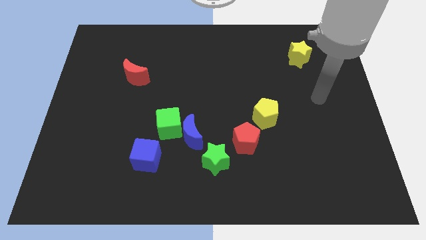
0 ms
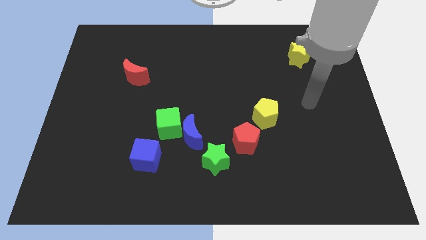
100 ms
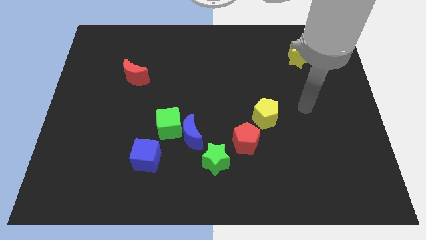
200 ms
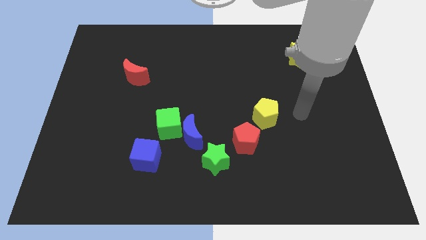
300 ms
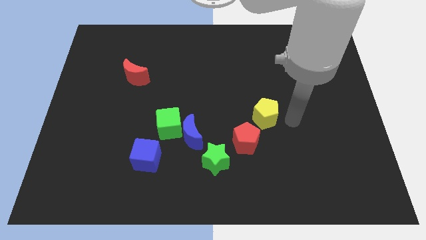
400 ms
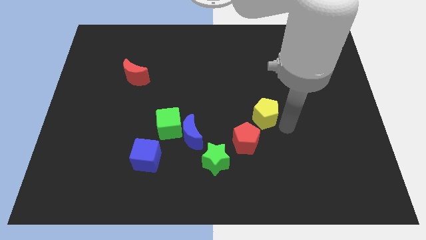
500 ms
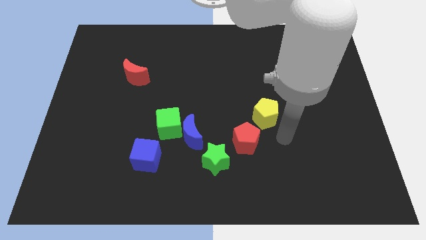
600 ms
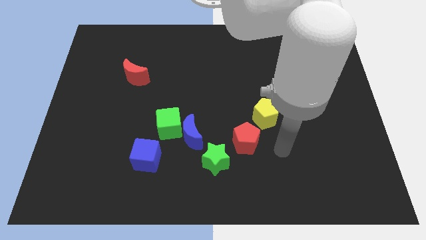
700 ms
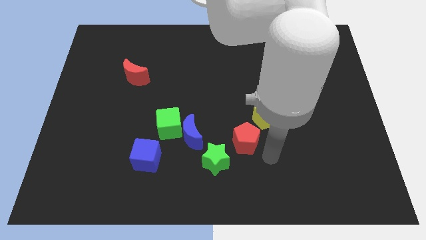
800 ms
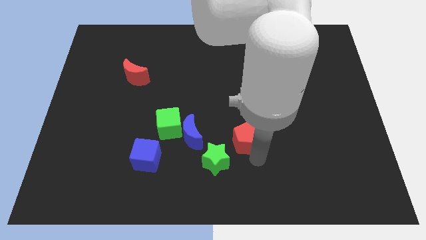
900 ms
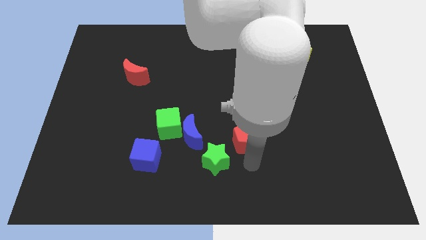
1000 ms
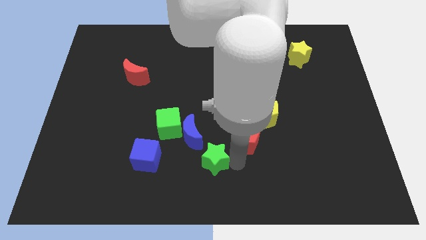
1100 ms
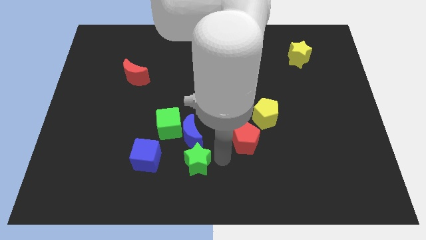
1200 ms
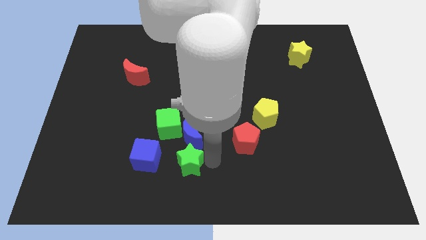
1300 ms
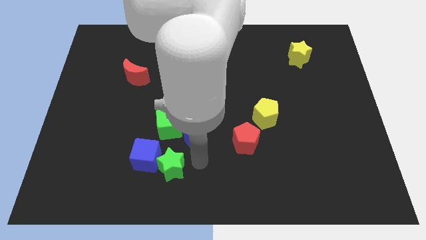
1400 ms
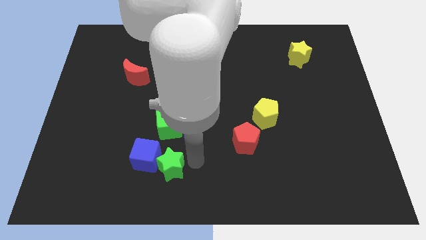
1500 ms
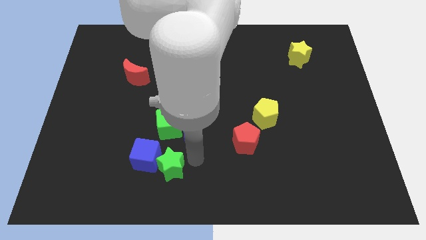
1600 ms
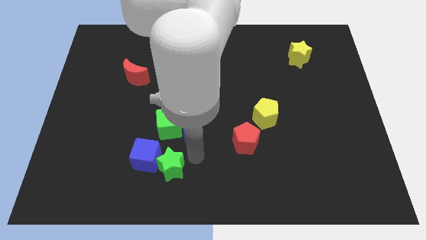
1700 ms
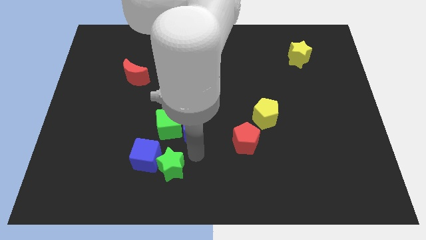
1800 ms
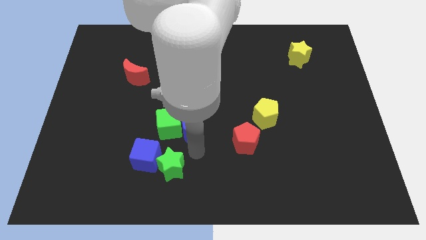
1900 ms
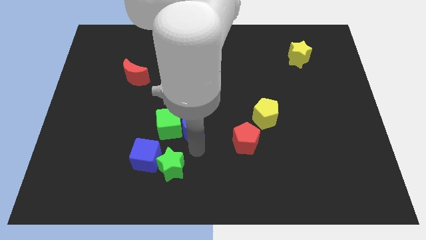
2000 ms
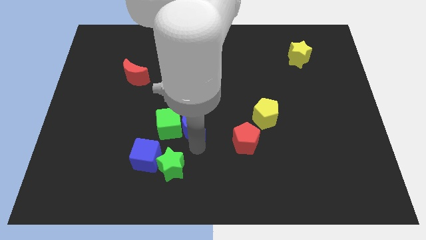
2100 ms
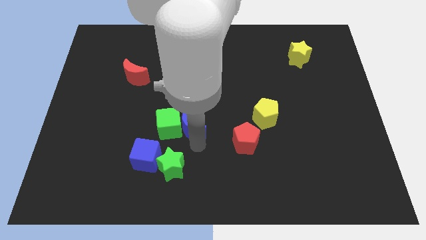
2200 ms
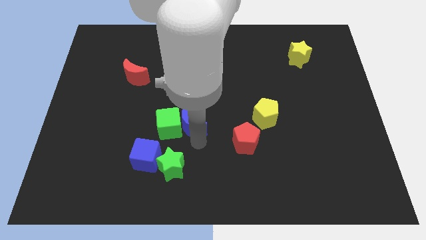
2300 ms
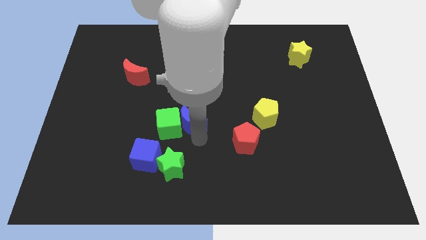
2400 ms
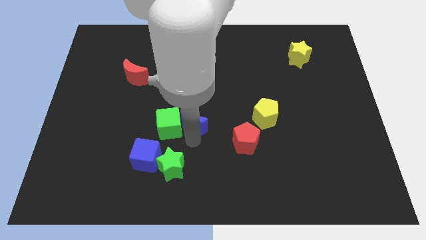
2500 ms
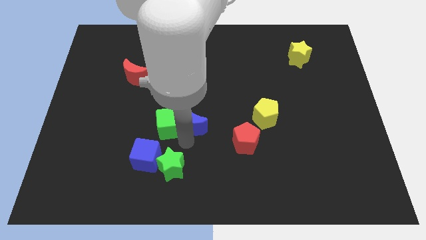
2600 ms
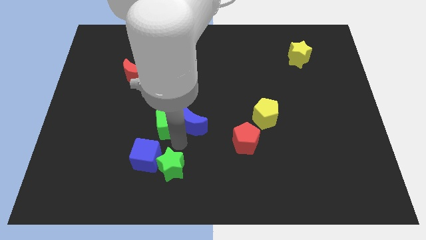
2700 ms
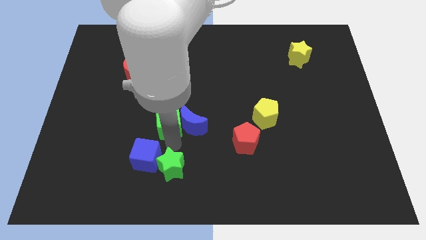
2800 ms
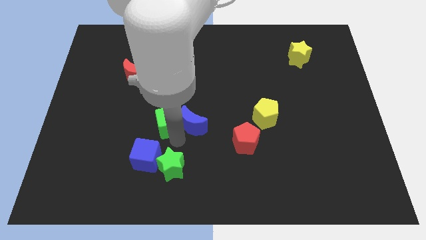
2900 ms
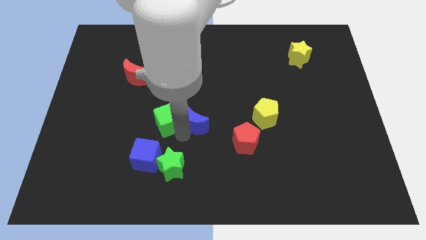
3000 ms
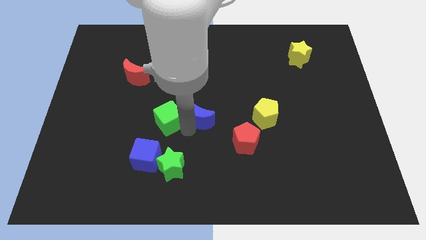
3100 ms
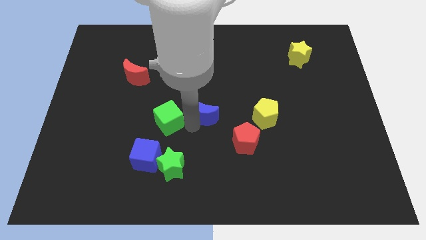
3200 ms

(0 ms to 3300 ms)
separate the blue moon from the green cube and green star

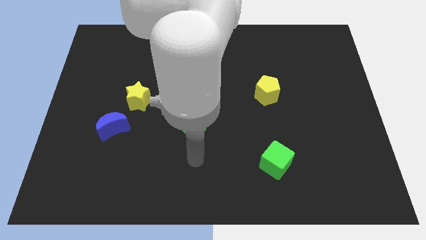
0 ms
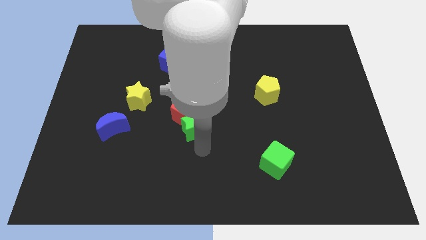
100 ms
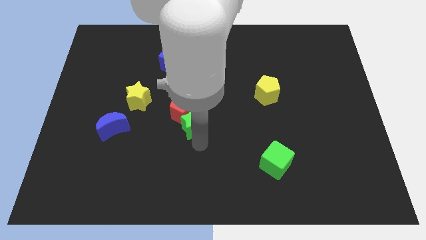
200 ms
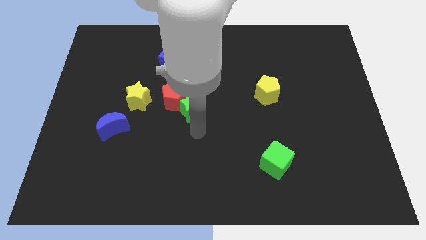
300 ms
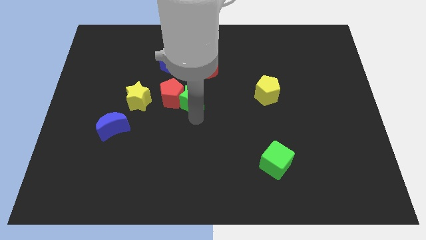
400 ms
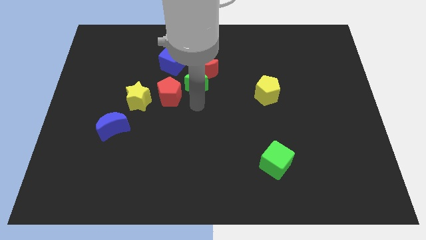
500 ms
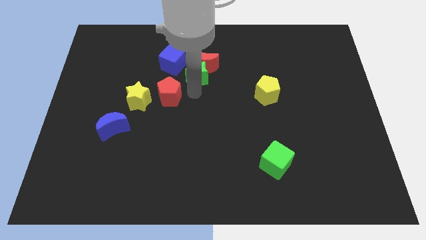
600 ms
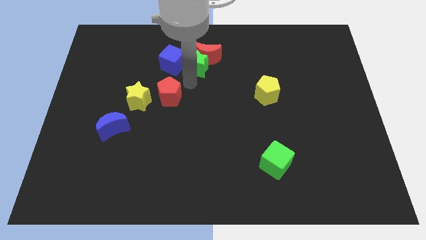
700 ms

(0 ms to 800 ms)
pull the red pentagon apart from the green star

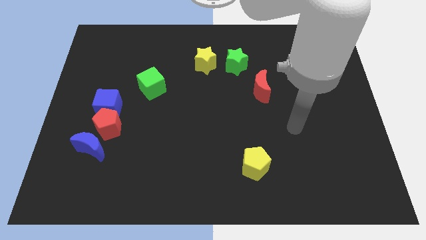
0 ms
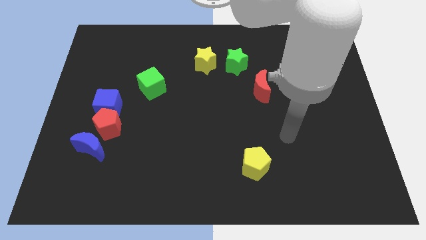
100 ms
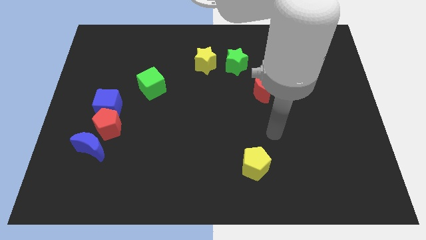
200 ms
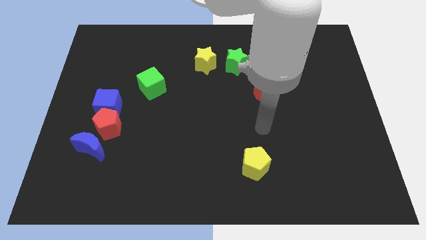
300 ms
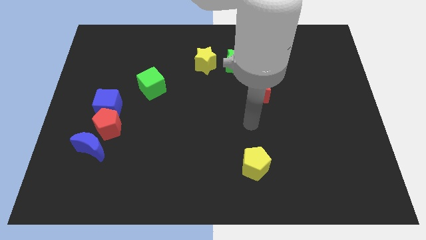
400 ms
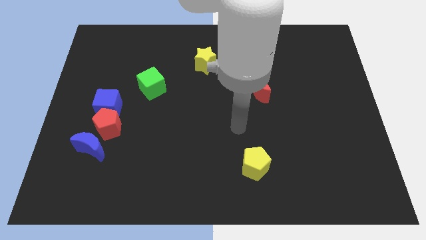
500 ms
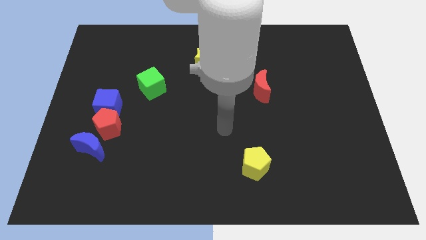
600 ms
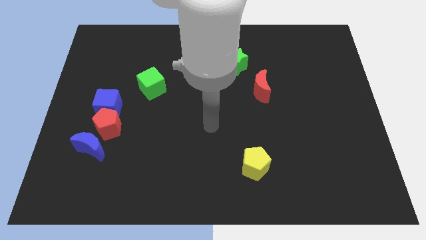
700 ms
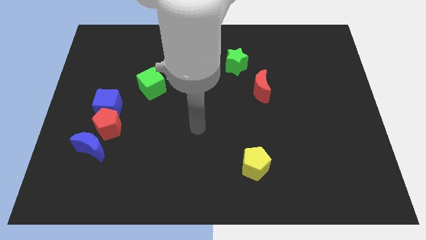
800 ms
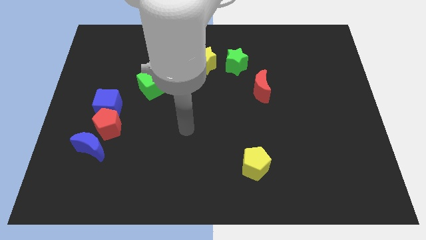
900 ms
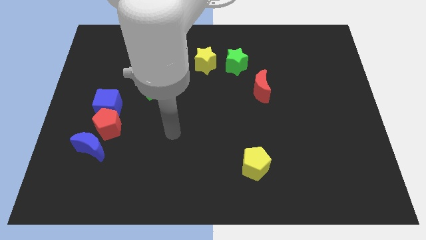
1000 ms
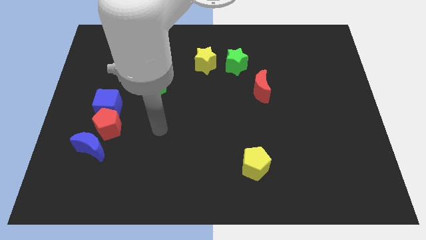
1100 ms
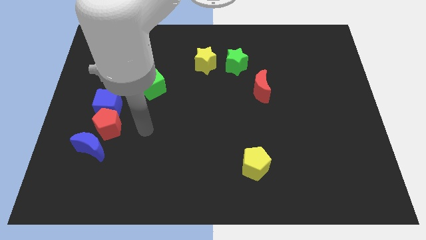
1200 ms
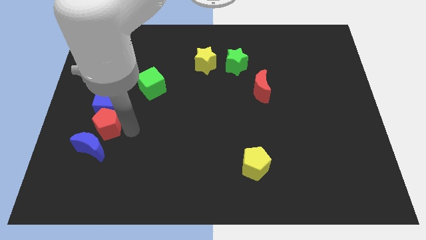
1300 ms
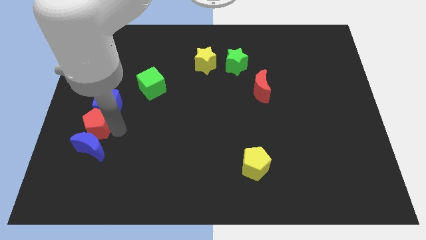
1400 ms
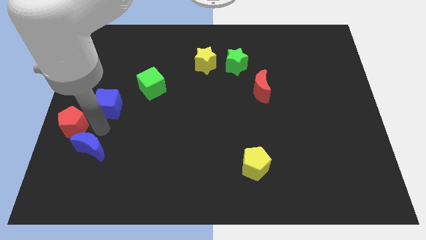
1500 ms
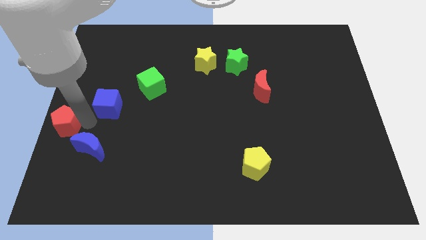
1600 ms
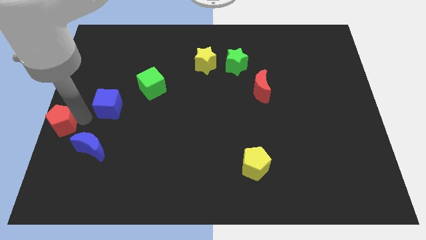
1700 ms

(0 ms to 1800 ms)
separate the blue cube from the red pentagon

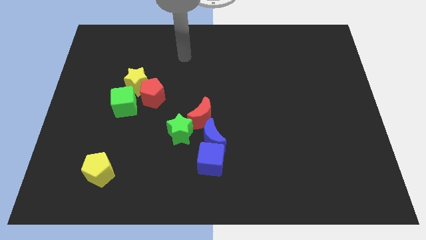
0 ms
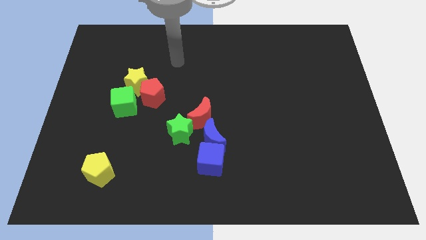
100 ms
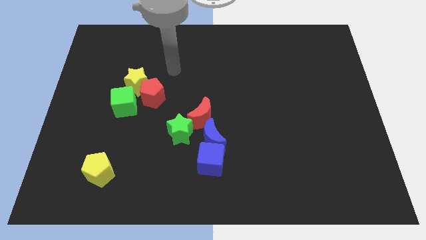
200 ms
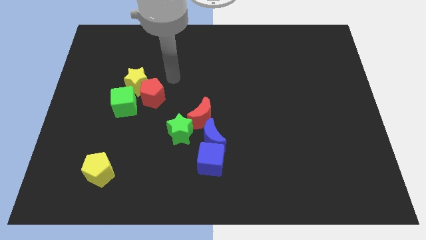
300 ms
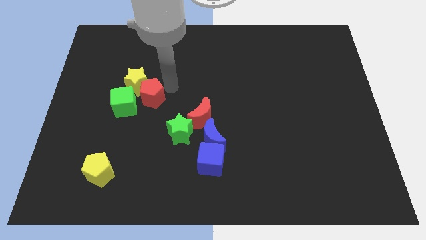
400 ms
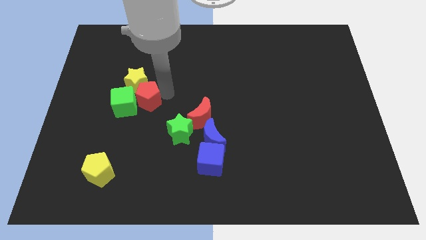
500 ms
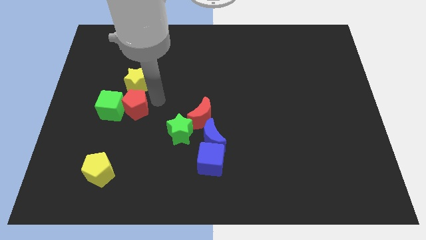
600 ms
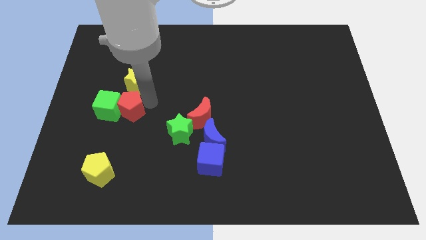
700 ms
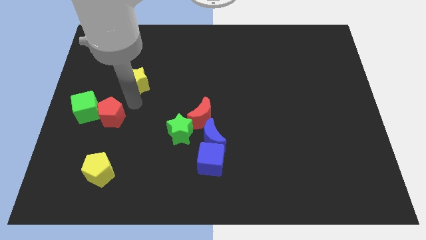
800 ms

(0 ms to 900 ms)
pull the yellow star apart from the red pentagon and green cube

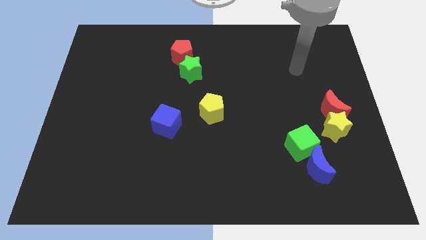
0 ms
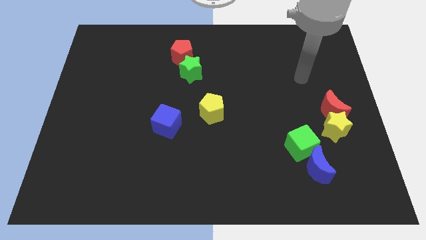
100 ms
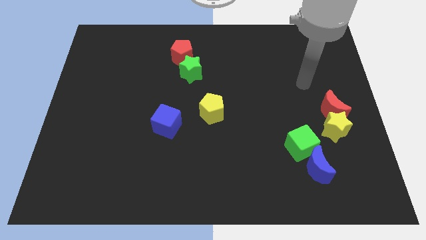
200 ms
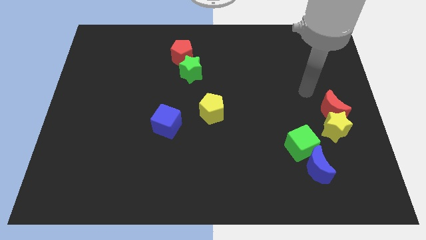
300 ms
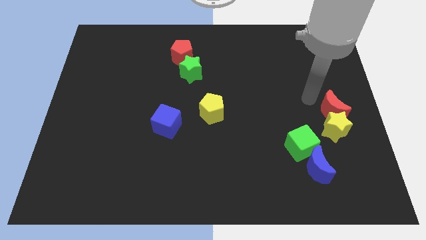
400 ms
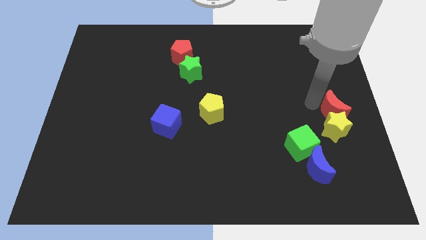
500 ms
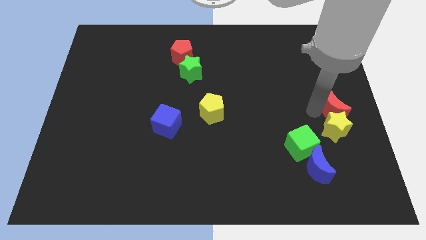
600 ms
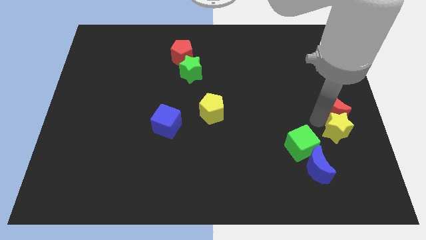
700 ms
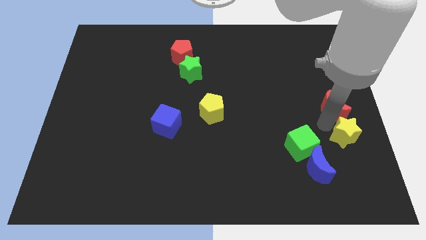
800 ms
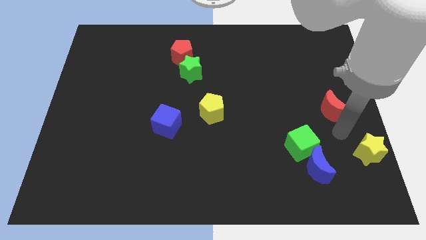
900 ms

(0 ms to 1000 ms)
pull the red moon apart from the yellow star

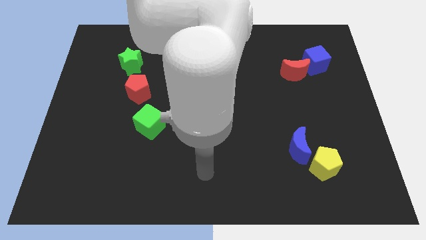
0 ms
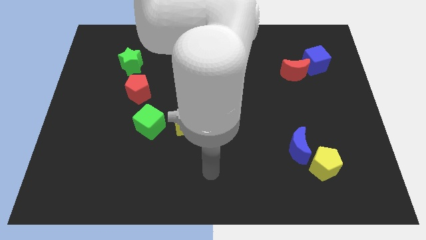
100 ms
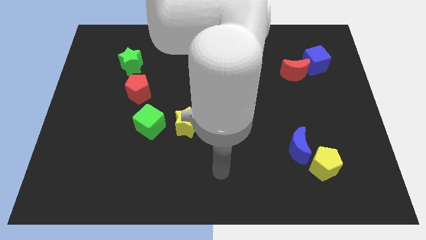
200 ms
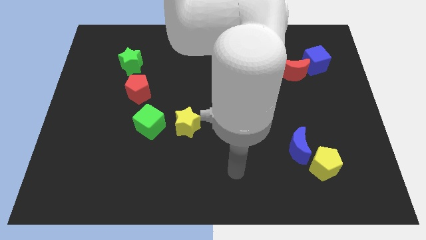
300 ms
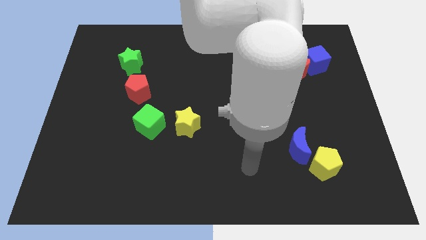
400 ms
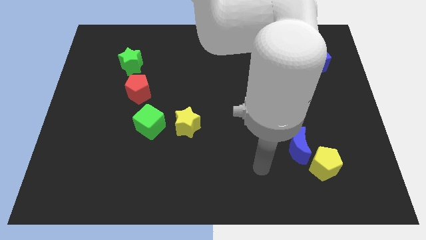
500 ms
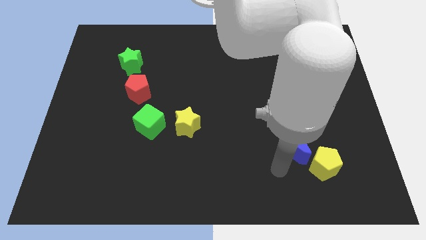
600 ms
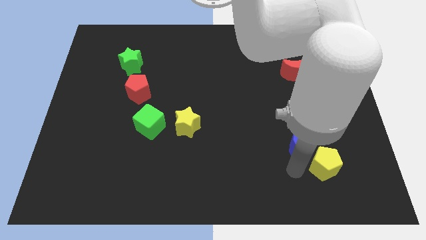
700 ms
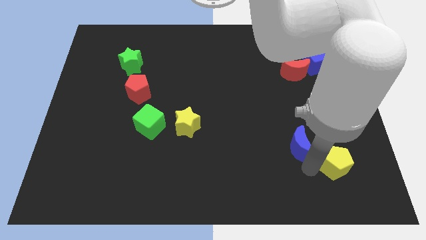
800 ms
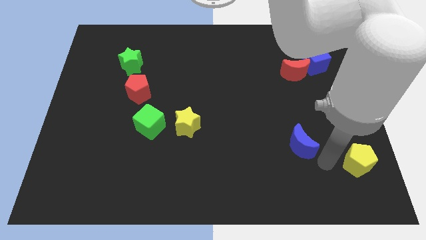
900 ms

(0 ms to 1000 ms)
separate the blue moon from the yellow pentagon

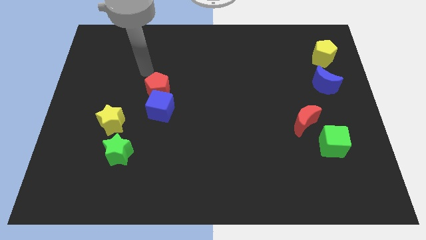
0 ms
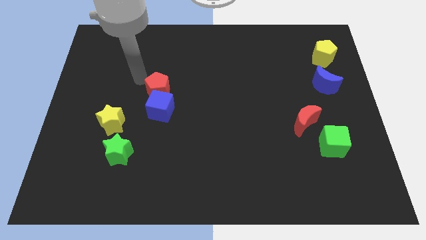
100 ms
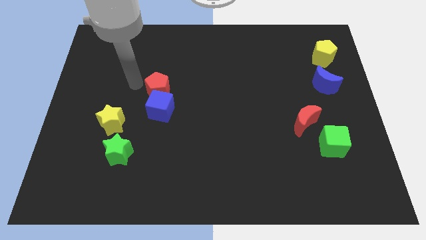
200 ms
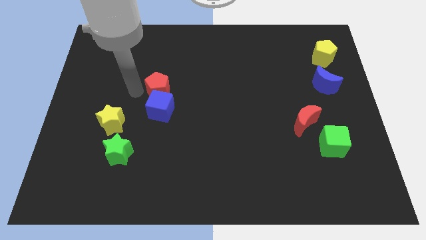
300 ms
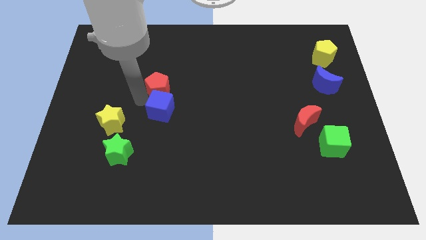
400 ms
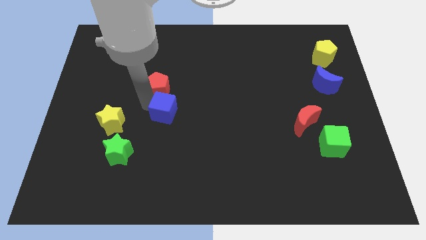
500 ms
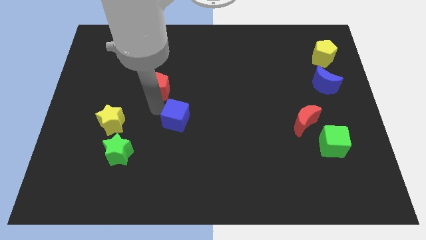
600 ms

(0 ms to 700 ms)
pull the red pentagon apart from the blue cube
